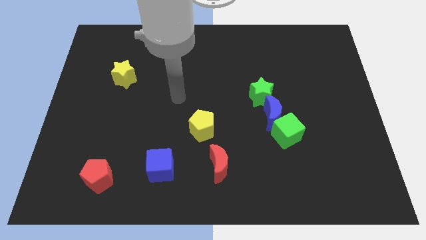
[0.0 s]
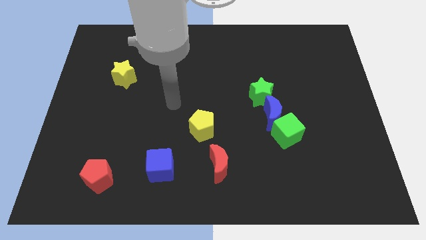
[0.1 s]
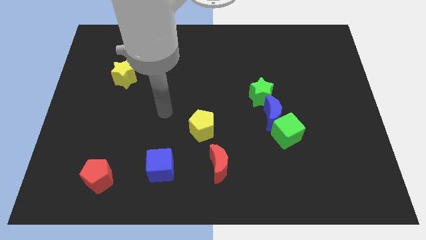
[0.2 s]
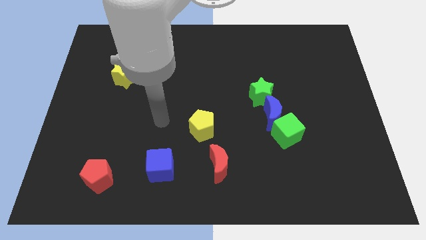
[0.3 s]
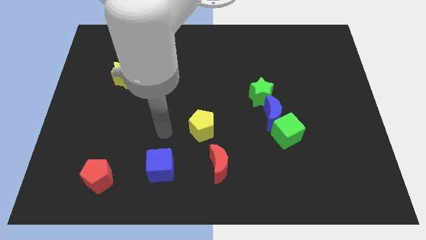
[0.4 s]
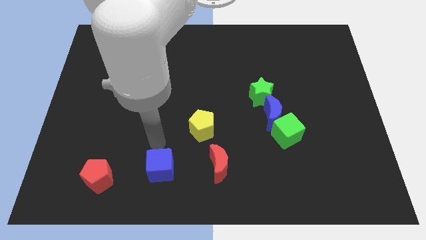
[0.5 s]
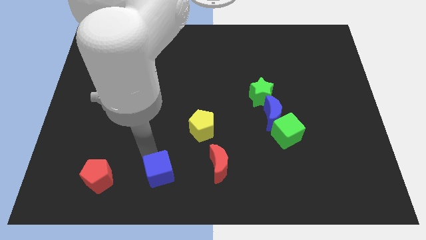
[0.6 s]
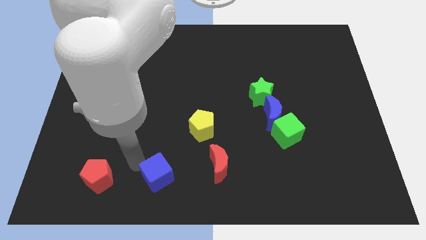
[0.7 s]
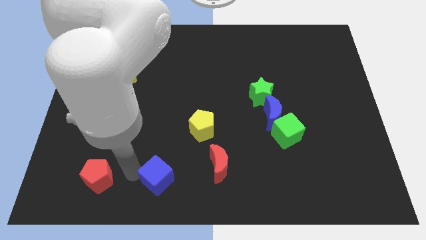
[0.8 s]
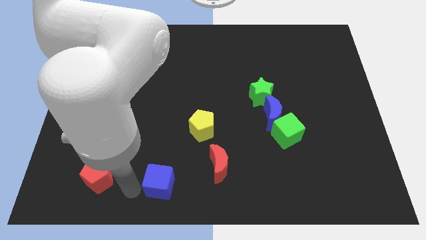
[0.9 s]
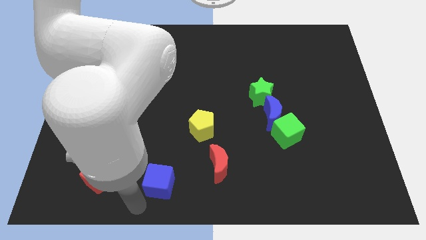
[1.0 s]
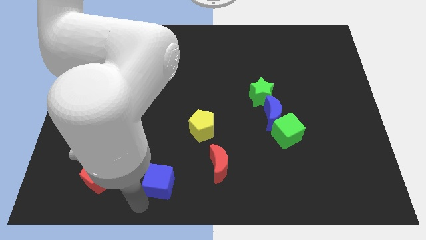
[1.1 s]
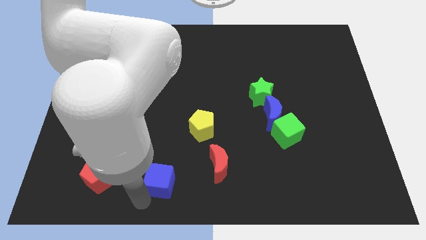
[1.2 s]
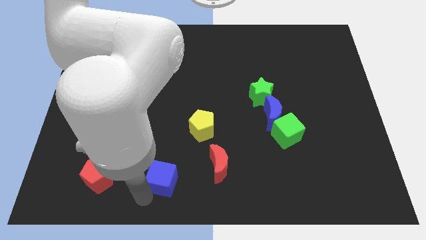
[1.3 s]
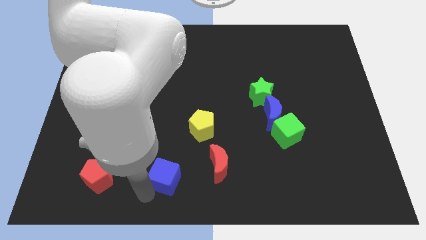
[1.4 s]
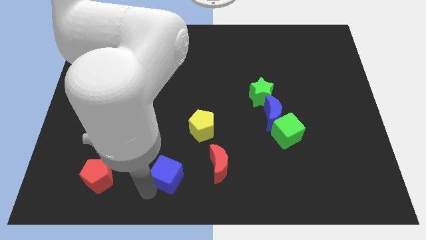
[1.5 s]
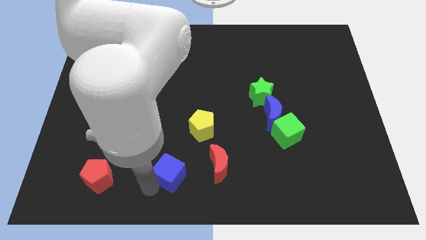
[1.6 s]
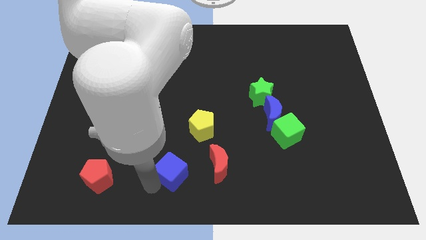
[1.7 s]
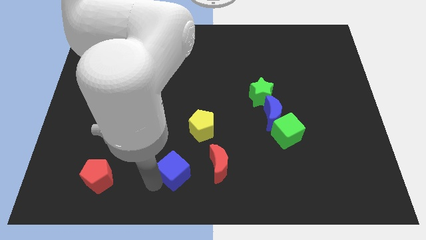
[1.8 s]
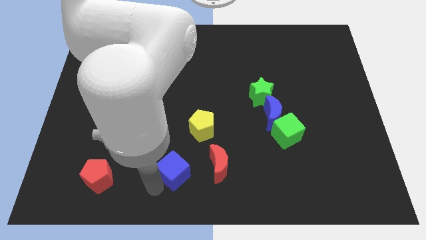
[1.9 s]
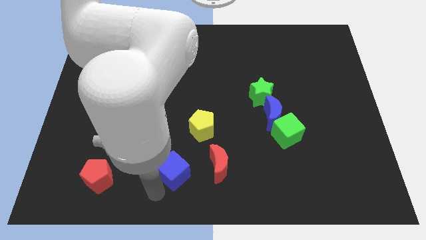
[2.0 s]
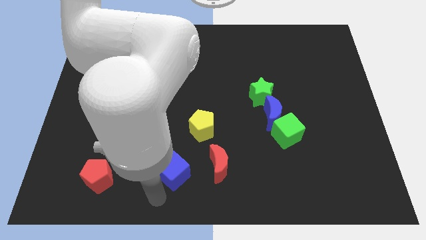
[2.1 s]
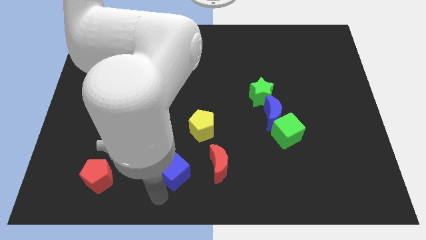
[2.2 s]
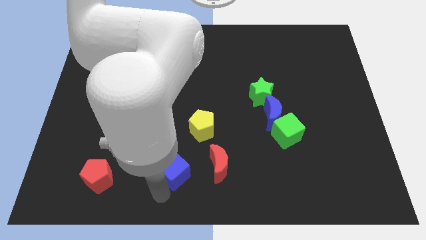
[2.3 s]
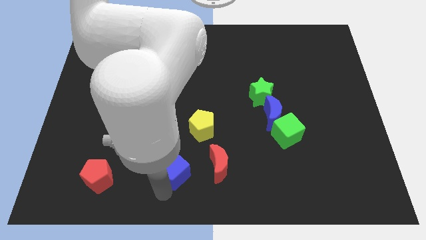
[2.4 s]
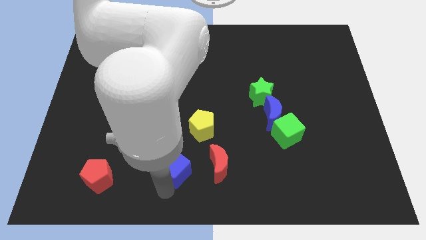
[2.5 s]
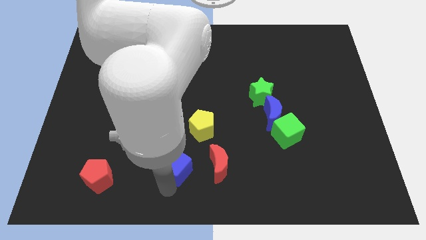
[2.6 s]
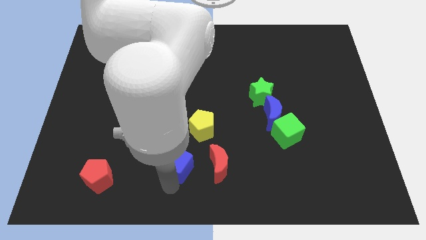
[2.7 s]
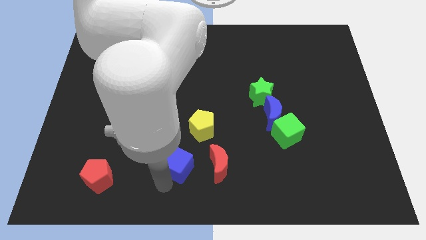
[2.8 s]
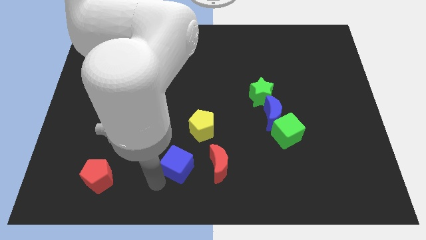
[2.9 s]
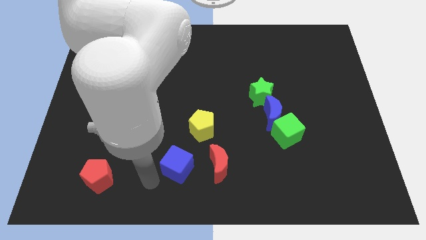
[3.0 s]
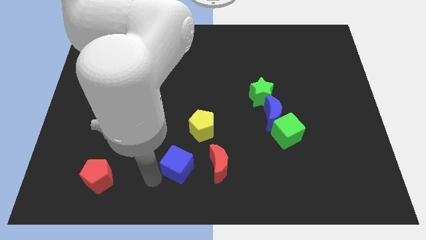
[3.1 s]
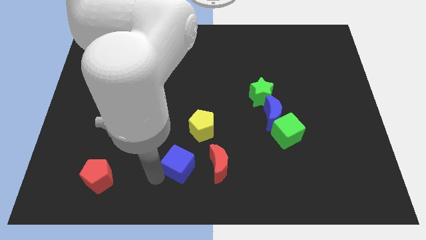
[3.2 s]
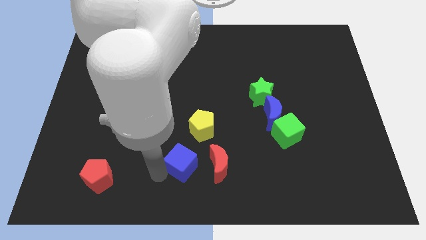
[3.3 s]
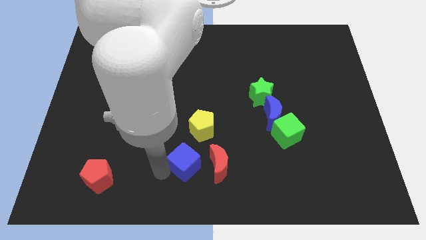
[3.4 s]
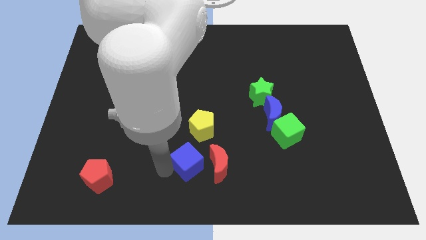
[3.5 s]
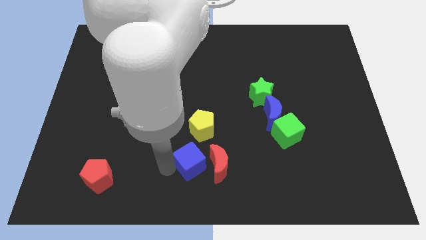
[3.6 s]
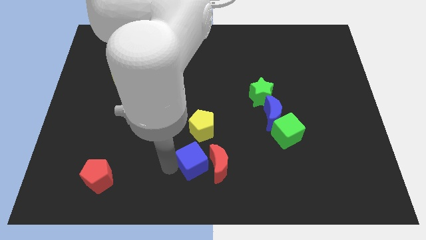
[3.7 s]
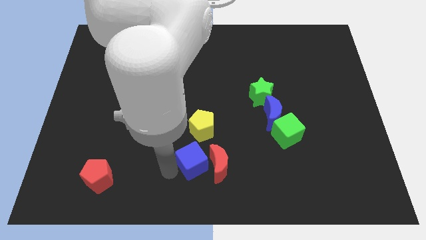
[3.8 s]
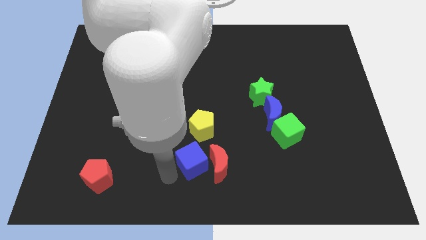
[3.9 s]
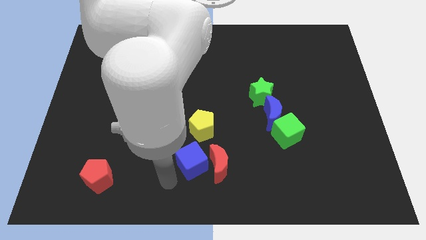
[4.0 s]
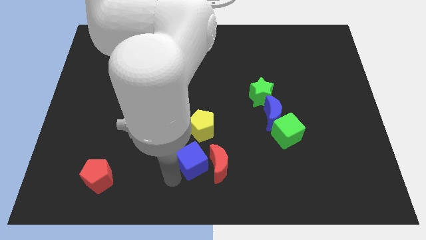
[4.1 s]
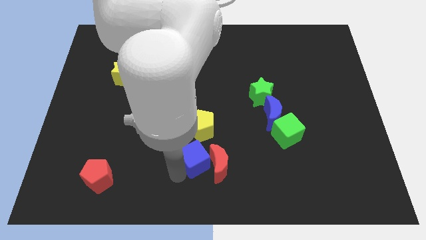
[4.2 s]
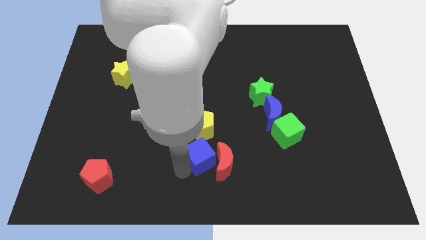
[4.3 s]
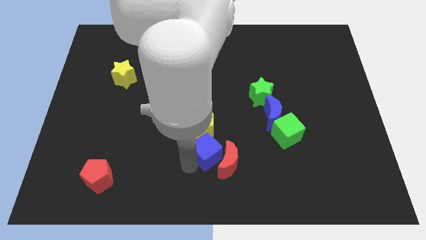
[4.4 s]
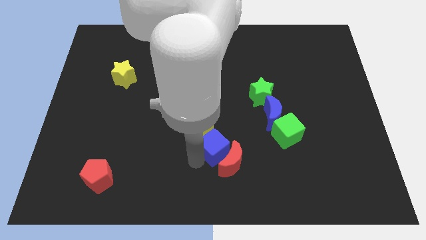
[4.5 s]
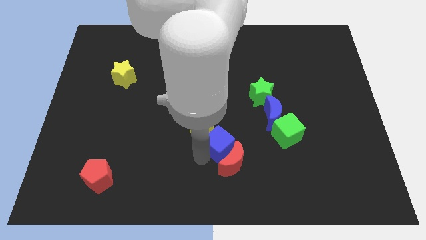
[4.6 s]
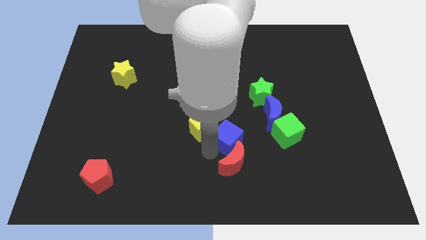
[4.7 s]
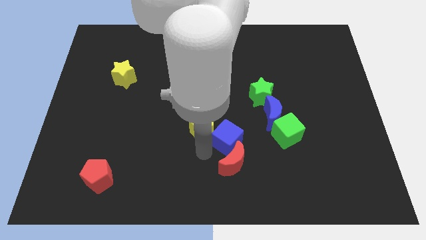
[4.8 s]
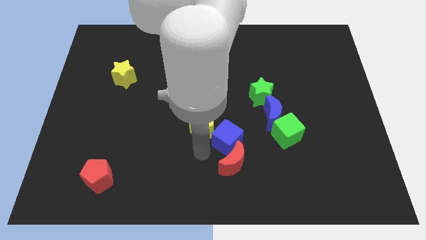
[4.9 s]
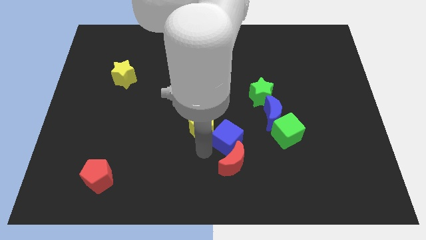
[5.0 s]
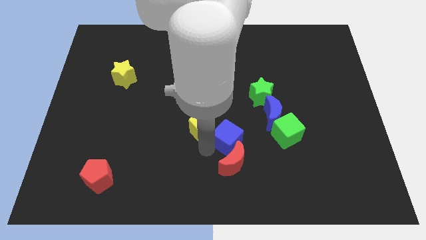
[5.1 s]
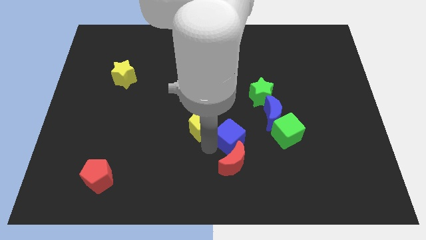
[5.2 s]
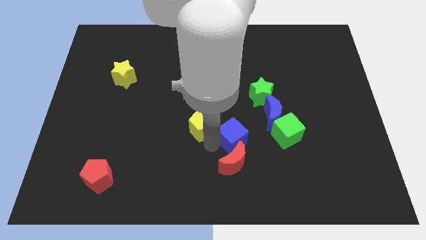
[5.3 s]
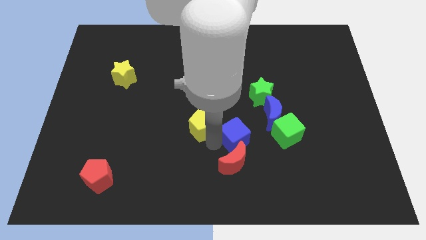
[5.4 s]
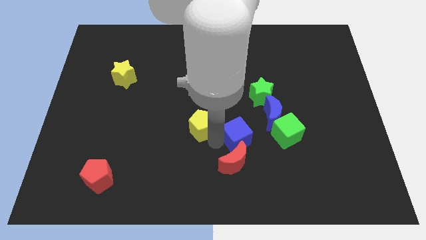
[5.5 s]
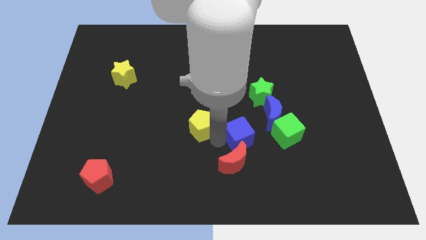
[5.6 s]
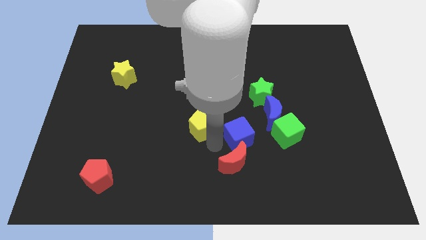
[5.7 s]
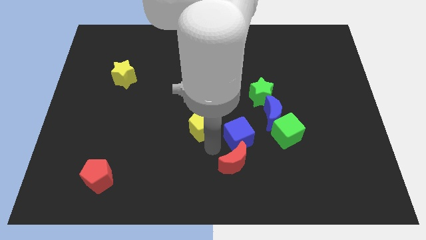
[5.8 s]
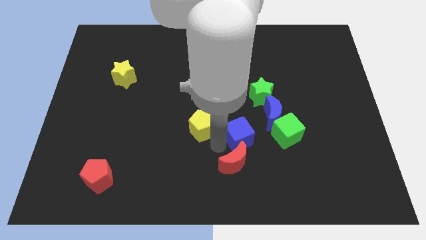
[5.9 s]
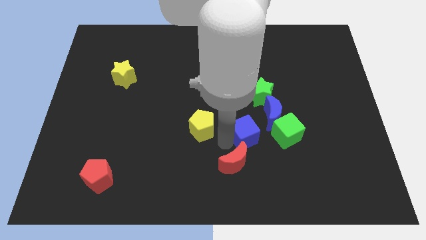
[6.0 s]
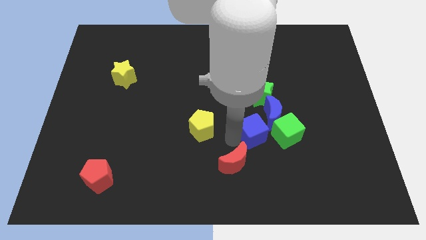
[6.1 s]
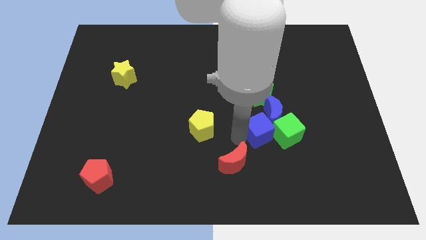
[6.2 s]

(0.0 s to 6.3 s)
put the blue cube close to the blue moon

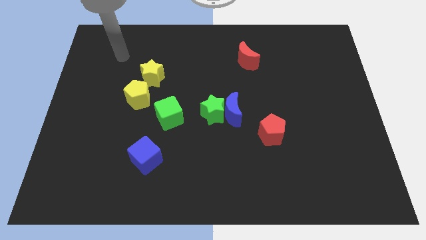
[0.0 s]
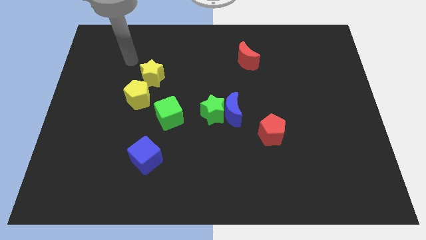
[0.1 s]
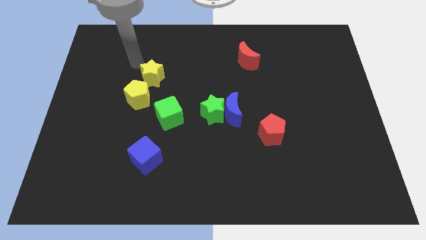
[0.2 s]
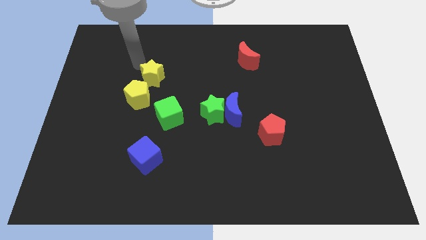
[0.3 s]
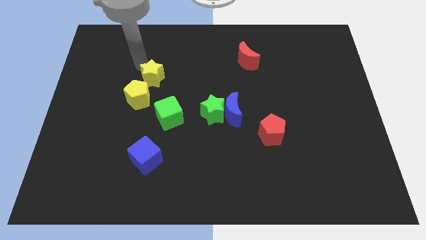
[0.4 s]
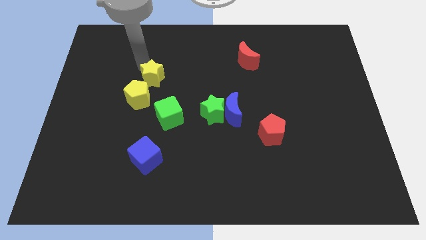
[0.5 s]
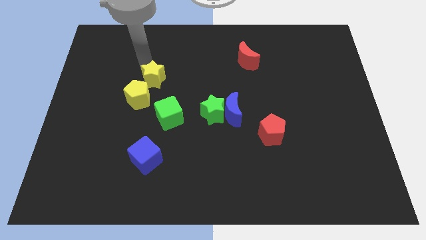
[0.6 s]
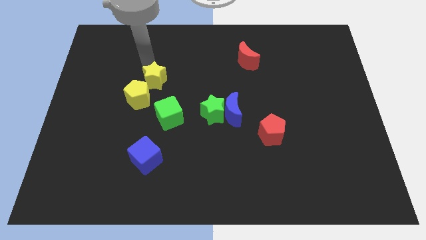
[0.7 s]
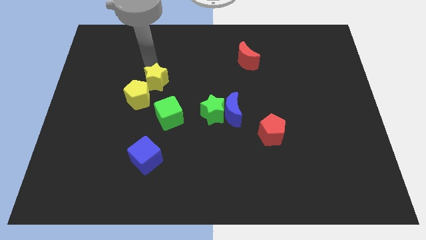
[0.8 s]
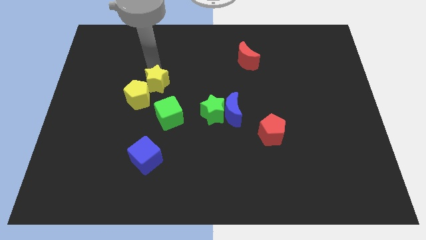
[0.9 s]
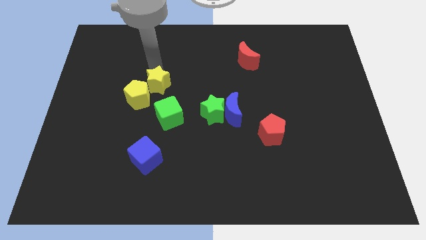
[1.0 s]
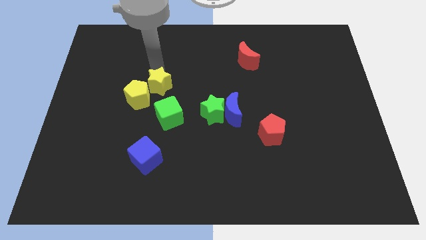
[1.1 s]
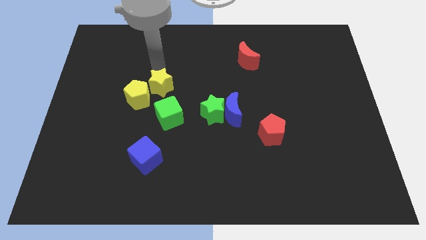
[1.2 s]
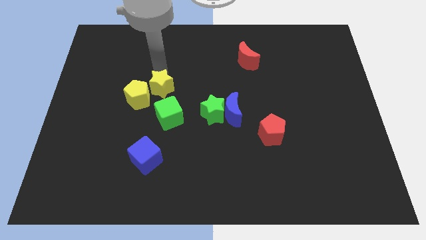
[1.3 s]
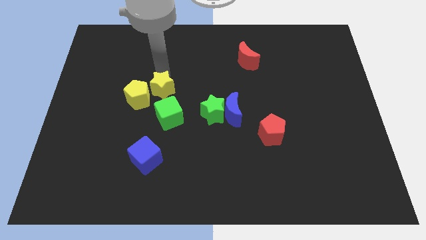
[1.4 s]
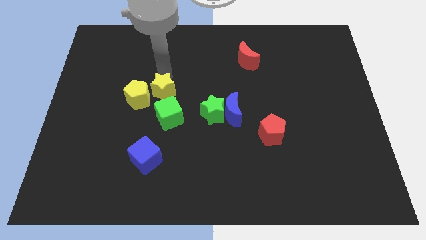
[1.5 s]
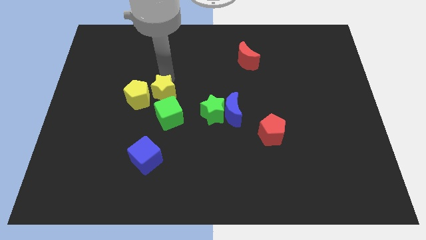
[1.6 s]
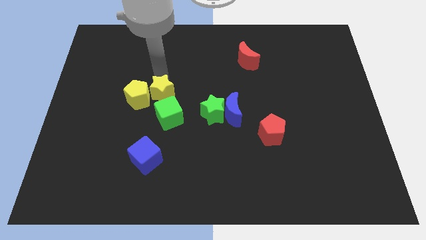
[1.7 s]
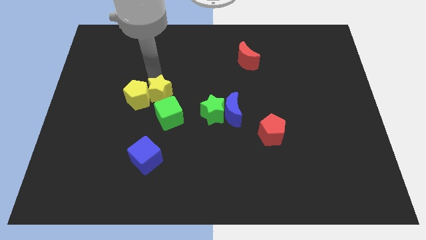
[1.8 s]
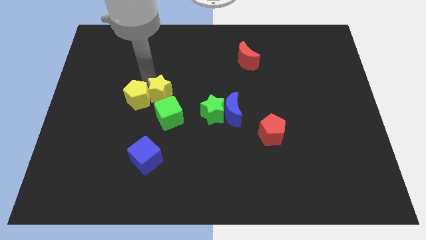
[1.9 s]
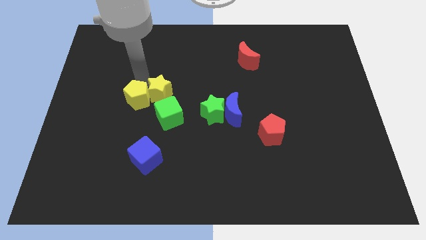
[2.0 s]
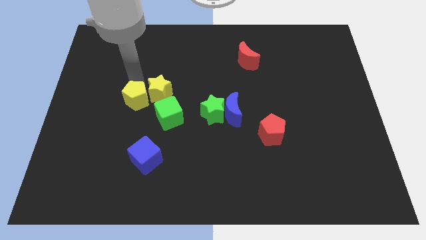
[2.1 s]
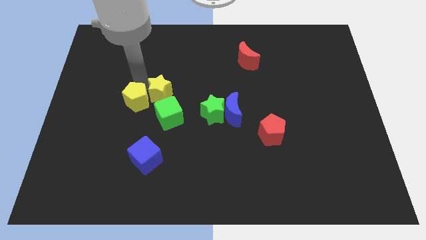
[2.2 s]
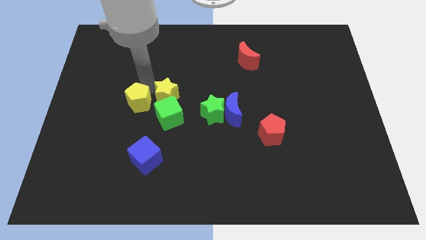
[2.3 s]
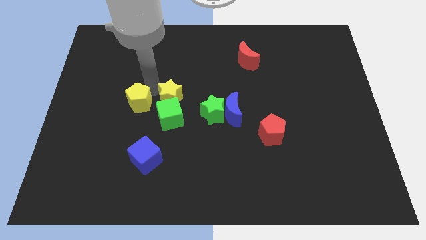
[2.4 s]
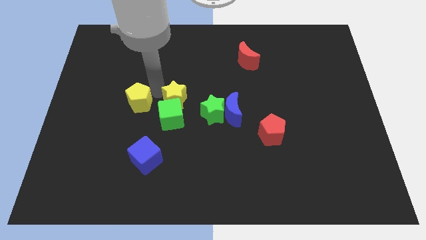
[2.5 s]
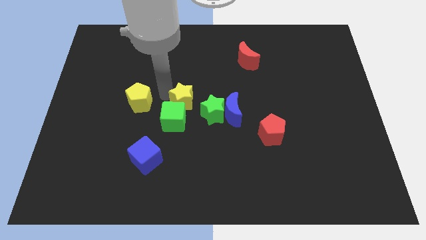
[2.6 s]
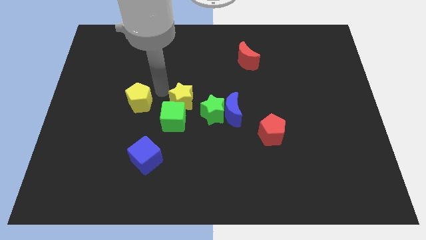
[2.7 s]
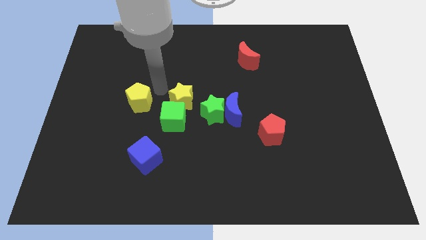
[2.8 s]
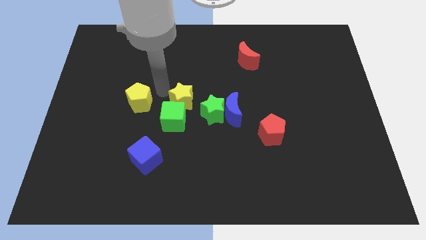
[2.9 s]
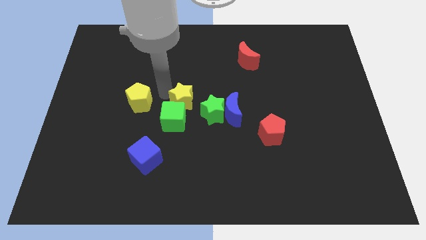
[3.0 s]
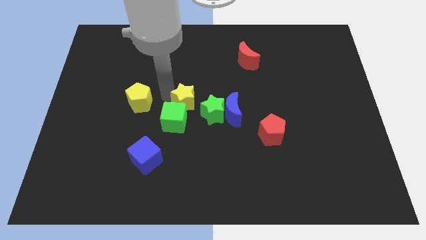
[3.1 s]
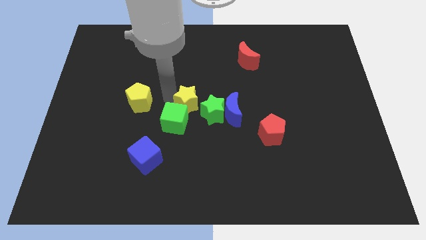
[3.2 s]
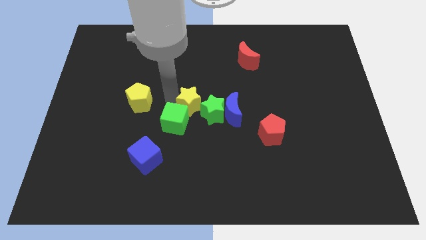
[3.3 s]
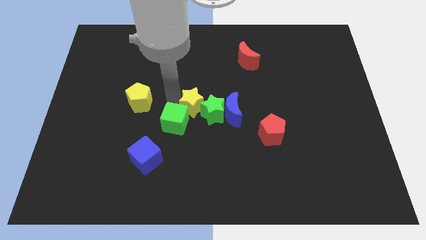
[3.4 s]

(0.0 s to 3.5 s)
move the yellow star towards the green star
